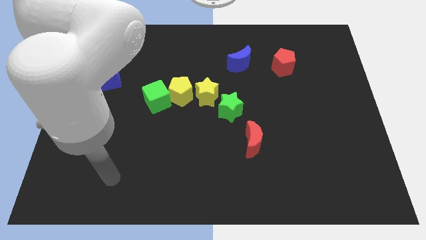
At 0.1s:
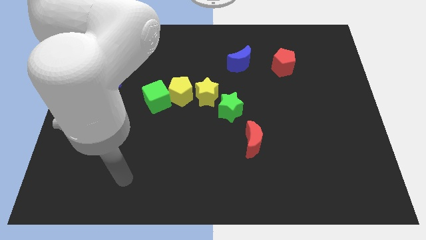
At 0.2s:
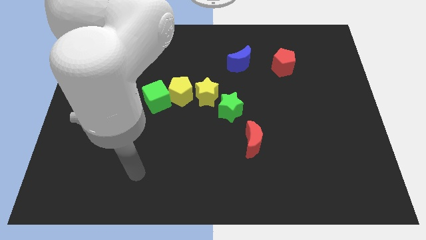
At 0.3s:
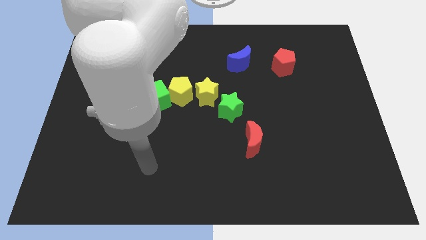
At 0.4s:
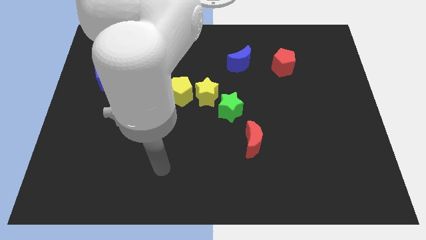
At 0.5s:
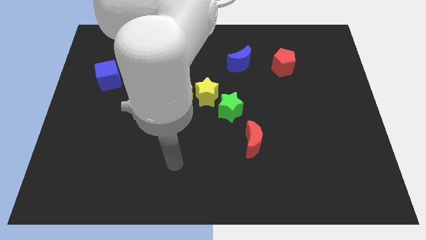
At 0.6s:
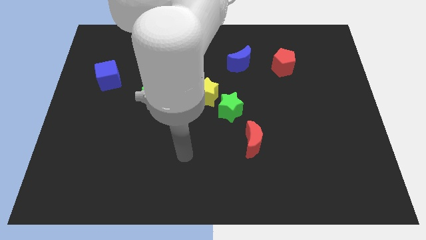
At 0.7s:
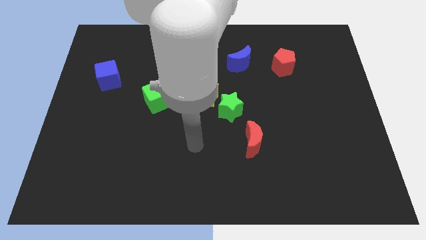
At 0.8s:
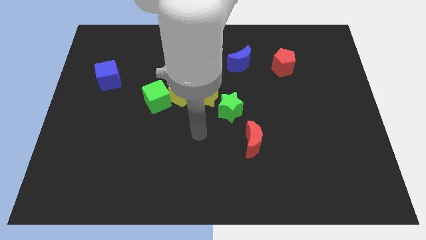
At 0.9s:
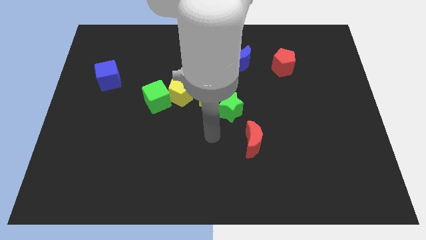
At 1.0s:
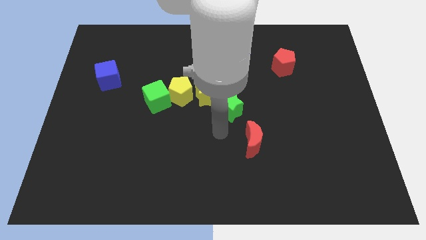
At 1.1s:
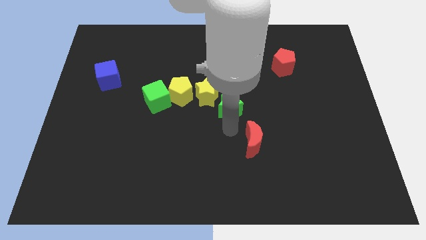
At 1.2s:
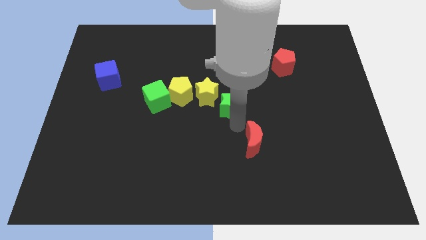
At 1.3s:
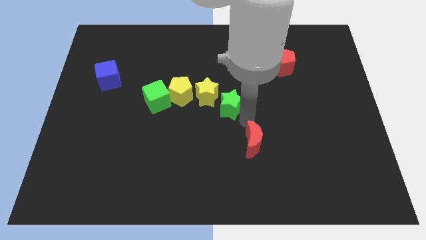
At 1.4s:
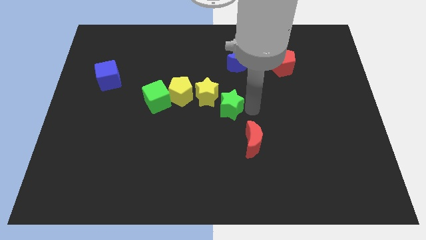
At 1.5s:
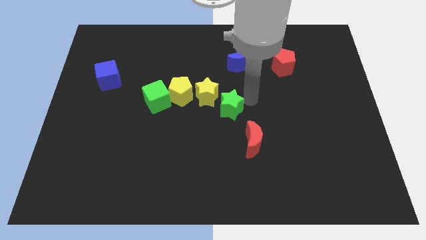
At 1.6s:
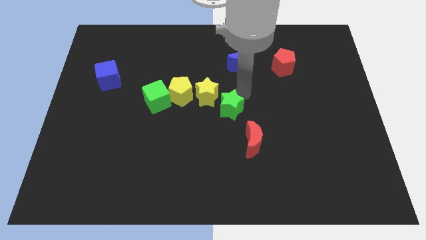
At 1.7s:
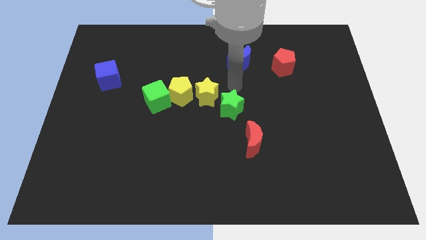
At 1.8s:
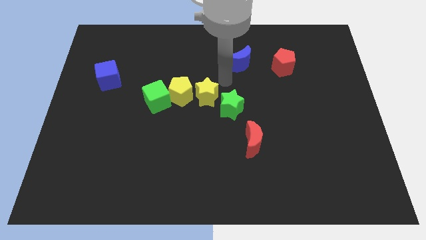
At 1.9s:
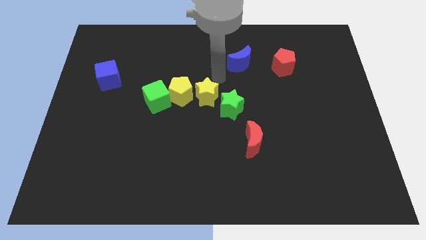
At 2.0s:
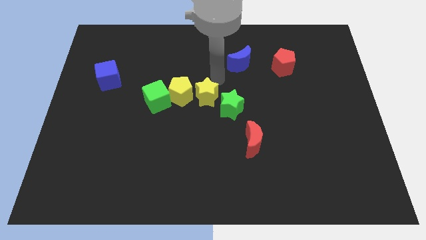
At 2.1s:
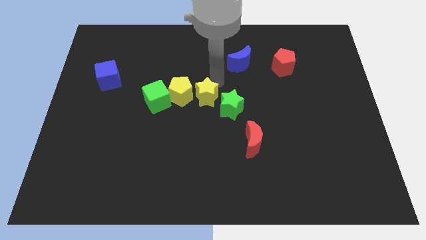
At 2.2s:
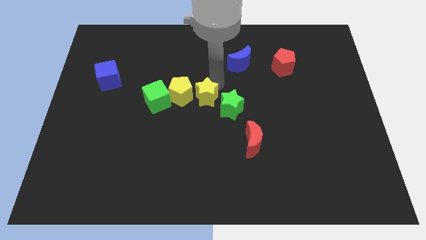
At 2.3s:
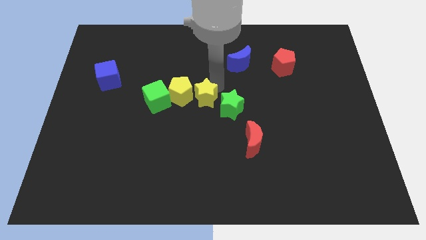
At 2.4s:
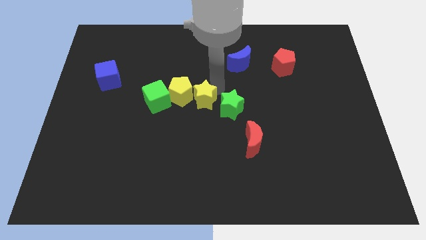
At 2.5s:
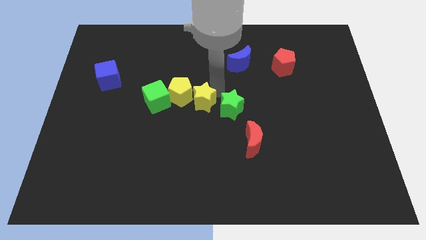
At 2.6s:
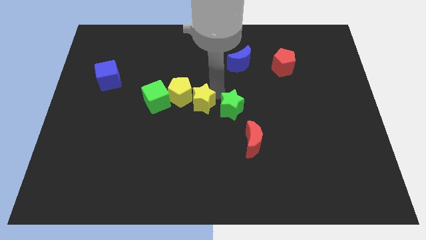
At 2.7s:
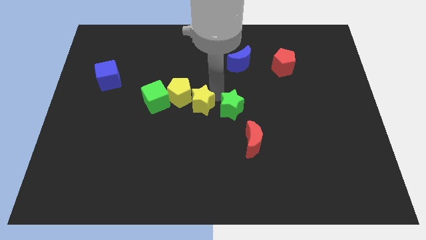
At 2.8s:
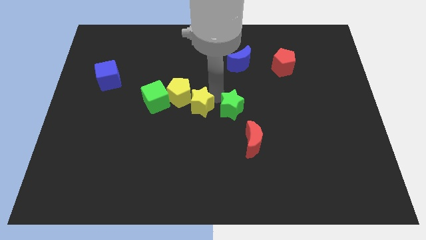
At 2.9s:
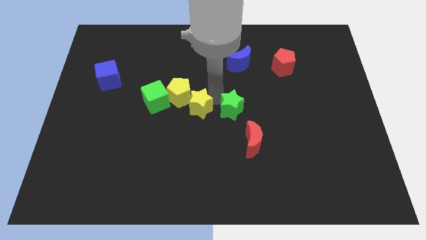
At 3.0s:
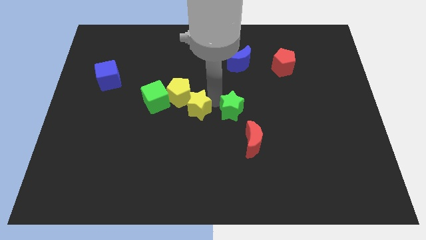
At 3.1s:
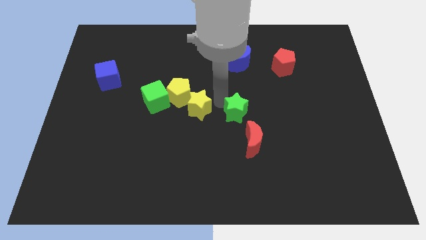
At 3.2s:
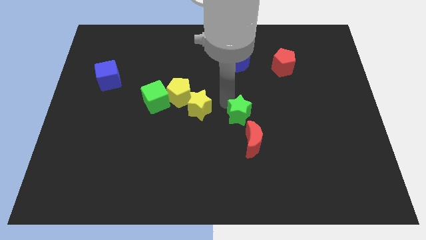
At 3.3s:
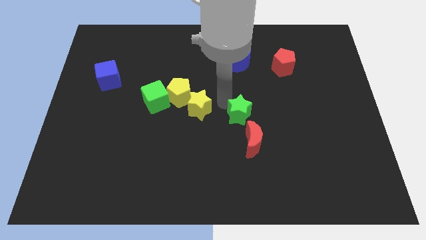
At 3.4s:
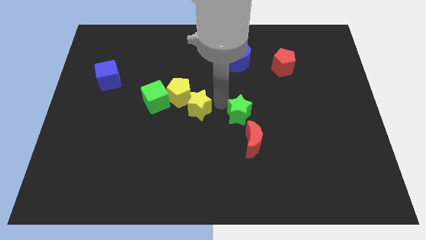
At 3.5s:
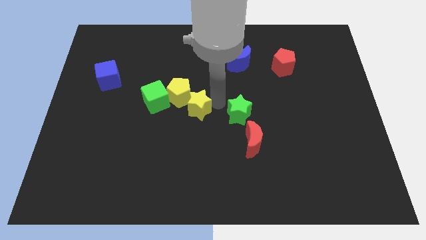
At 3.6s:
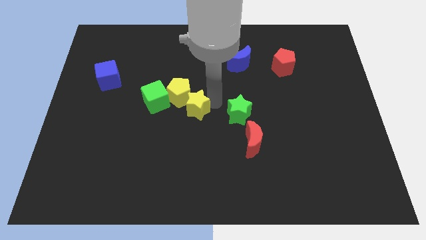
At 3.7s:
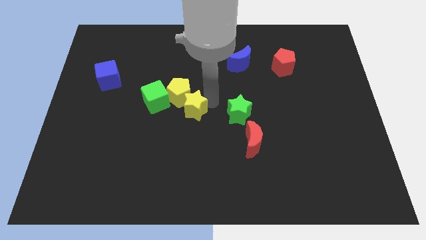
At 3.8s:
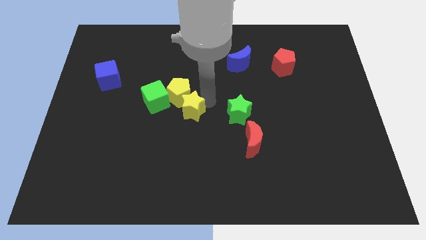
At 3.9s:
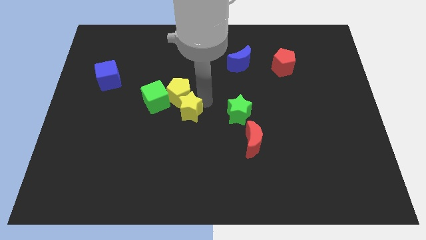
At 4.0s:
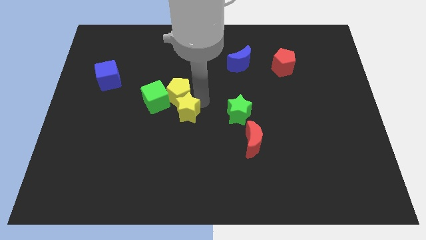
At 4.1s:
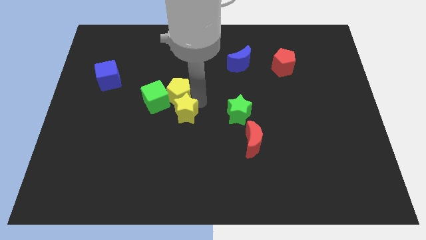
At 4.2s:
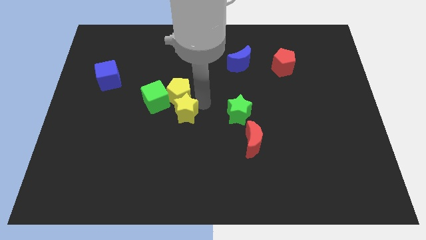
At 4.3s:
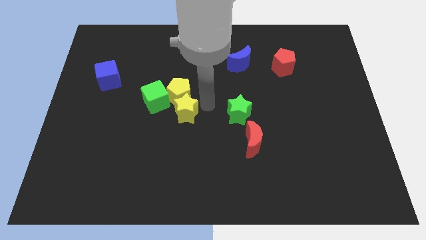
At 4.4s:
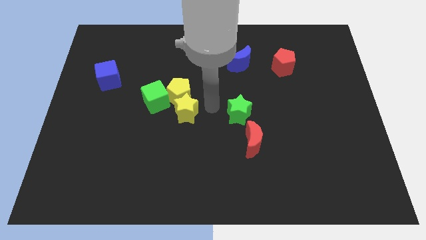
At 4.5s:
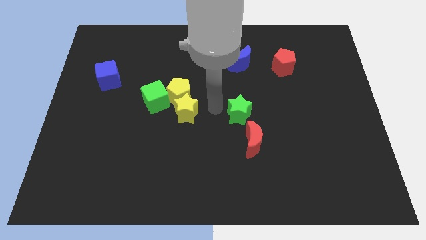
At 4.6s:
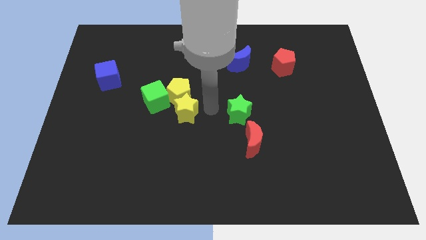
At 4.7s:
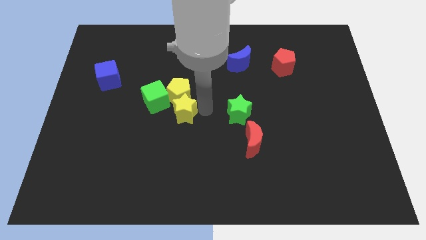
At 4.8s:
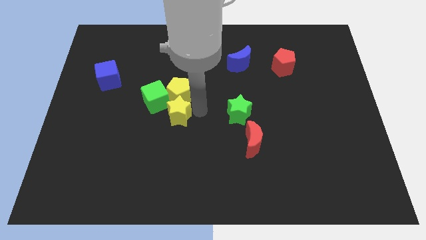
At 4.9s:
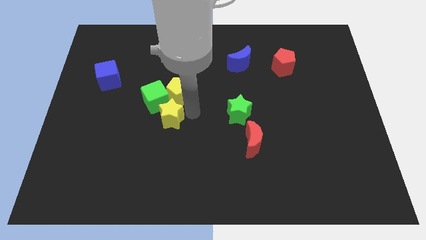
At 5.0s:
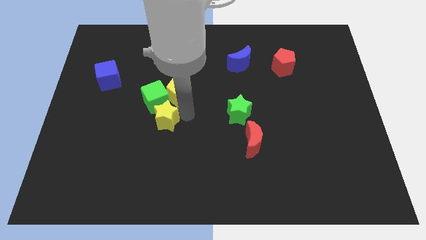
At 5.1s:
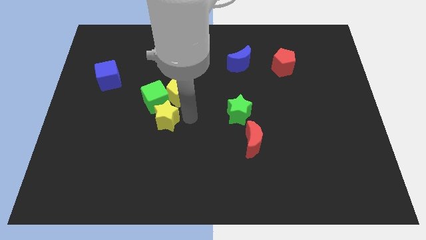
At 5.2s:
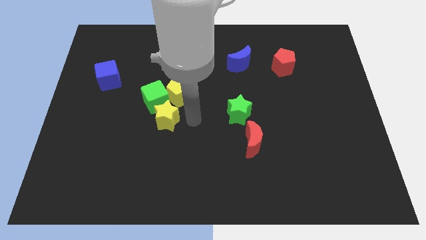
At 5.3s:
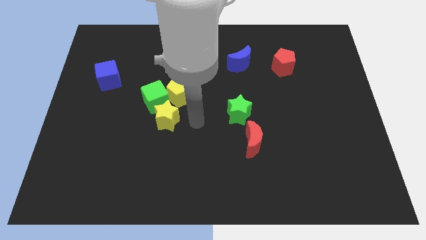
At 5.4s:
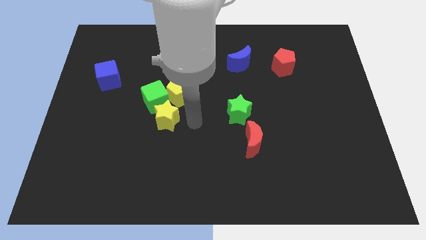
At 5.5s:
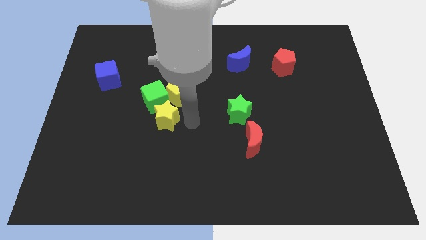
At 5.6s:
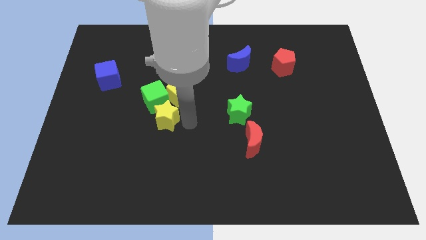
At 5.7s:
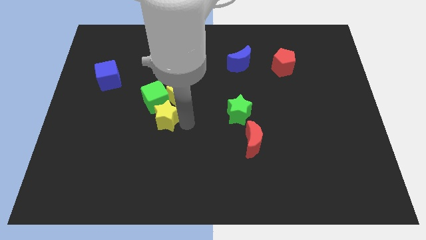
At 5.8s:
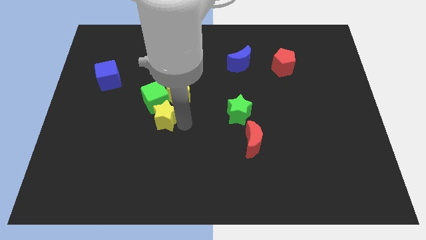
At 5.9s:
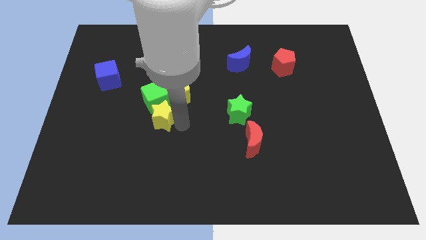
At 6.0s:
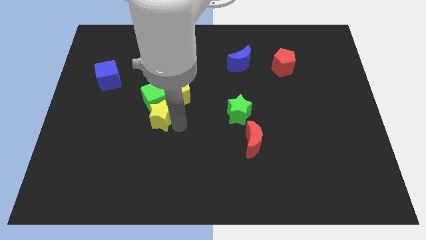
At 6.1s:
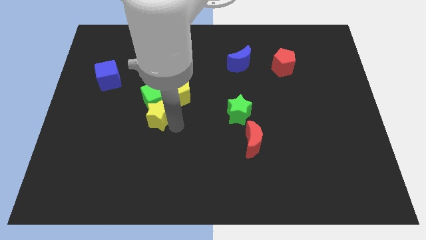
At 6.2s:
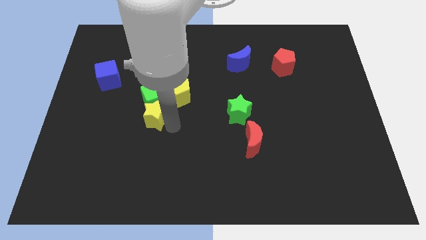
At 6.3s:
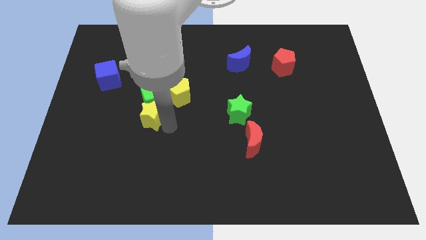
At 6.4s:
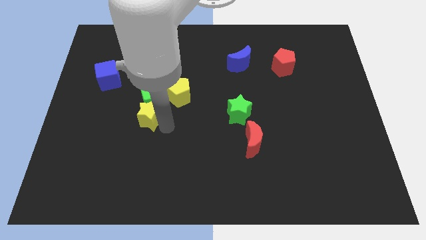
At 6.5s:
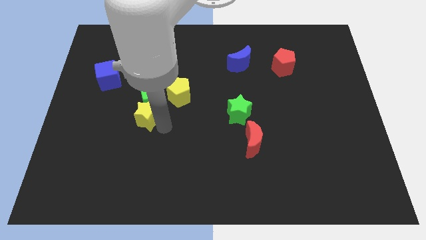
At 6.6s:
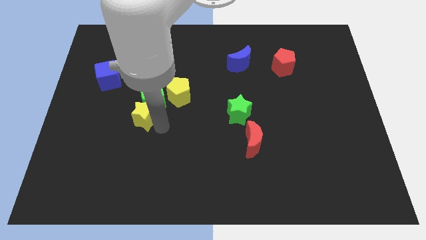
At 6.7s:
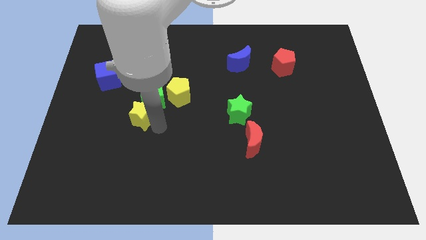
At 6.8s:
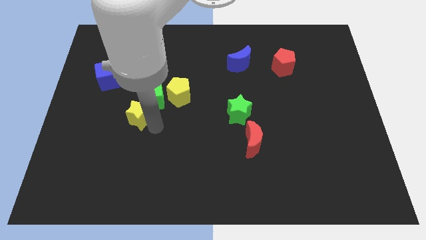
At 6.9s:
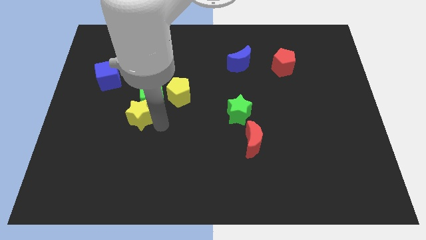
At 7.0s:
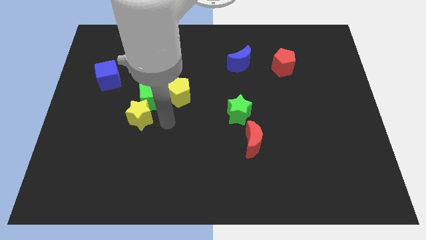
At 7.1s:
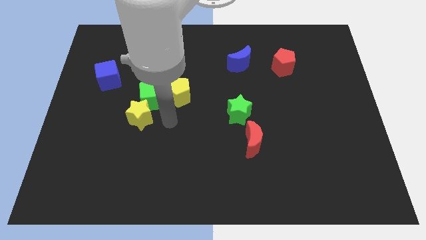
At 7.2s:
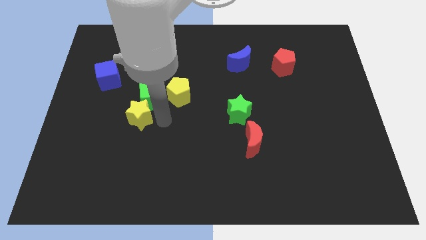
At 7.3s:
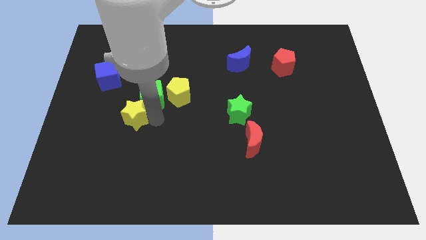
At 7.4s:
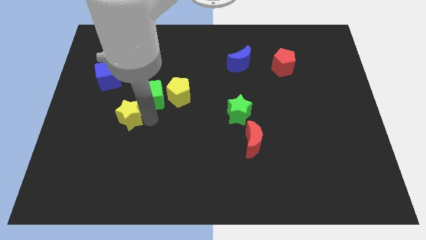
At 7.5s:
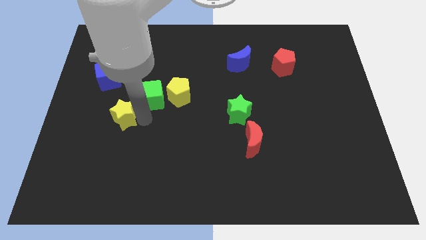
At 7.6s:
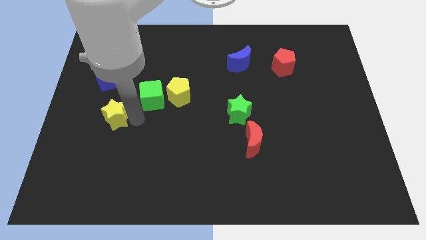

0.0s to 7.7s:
slide the yellow star to the bottom of the blue cube
